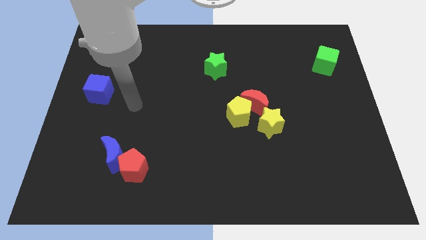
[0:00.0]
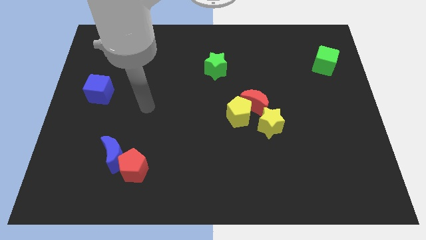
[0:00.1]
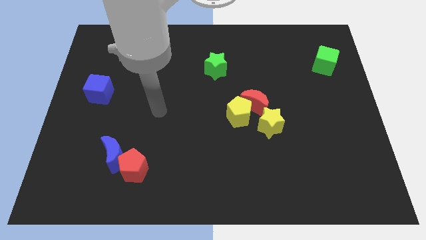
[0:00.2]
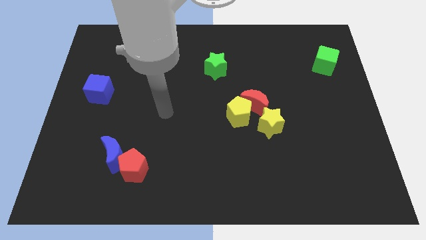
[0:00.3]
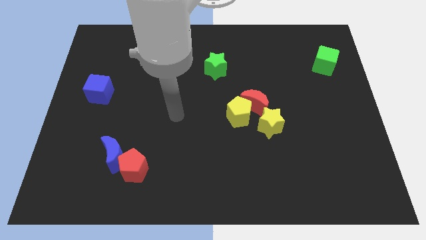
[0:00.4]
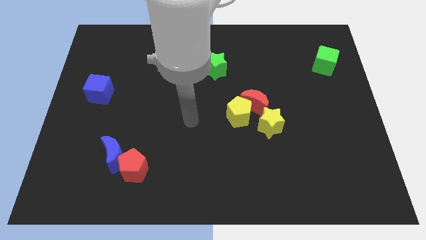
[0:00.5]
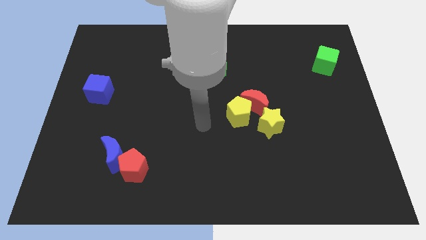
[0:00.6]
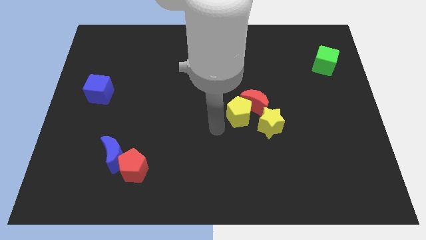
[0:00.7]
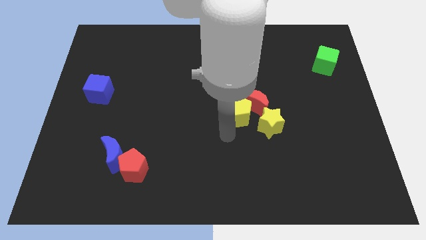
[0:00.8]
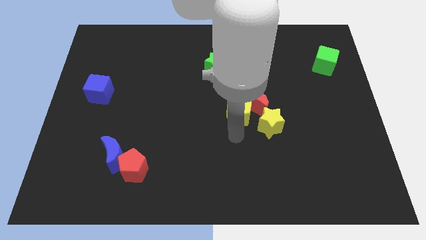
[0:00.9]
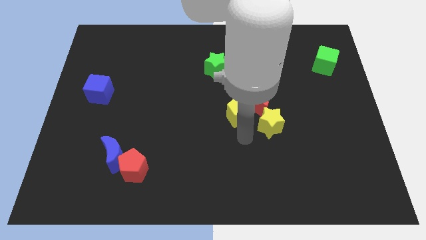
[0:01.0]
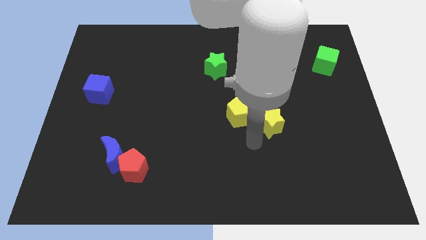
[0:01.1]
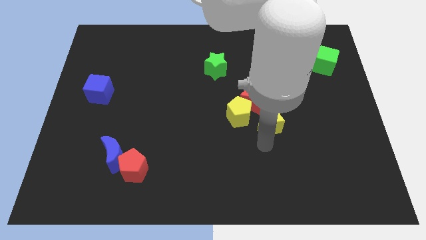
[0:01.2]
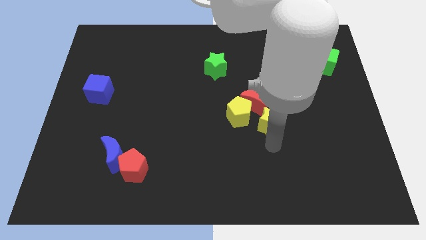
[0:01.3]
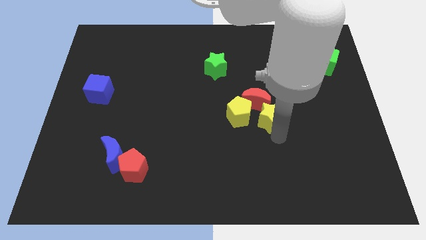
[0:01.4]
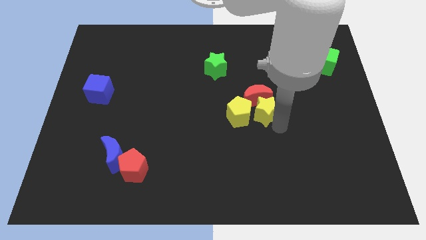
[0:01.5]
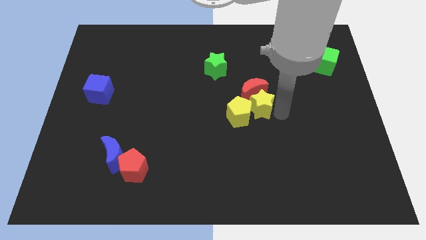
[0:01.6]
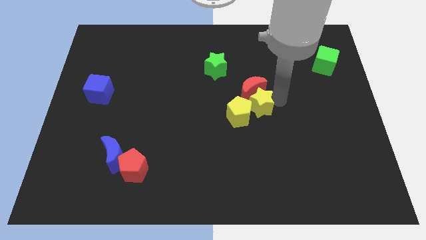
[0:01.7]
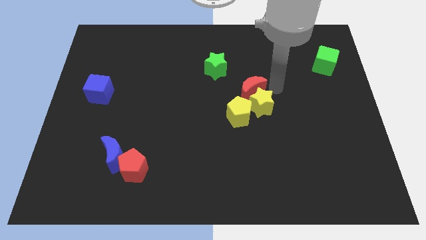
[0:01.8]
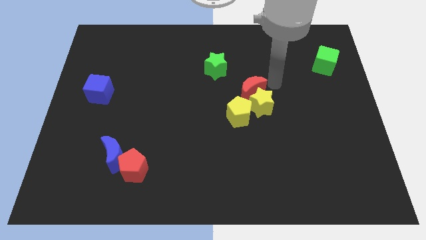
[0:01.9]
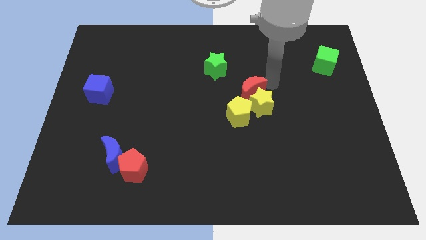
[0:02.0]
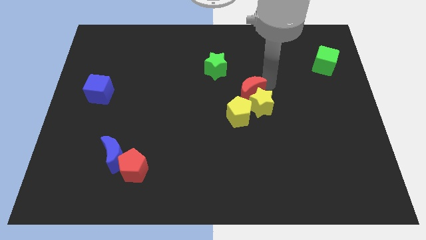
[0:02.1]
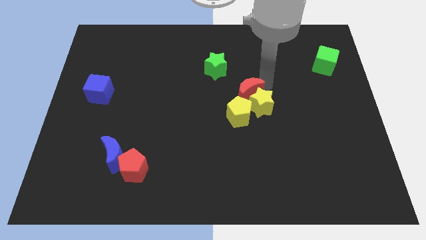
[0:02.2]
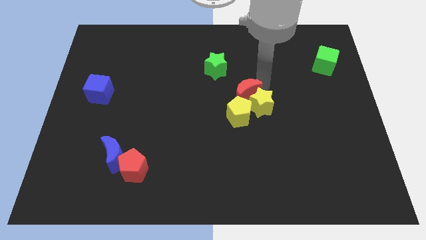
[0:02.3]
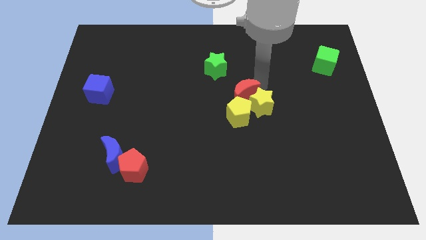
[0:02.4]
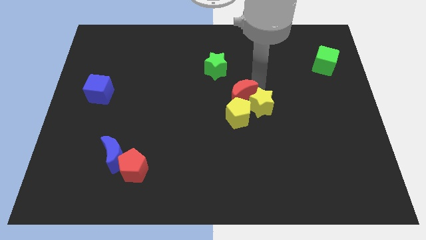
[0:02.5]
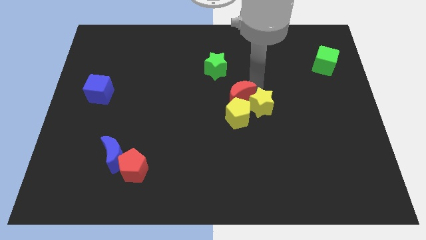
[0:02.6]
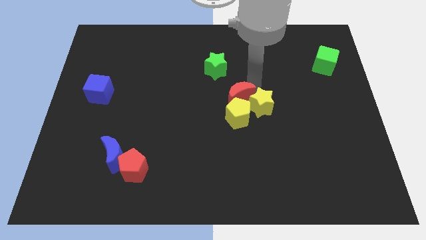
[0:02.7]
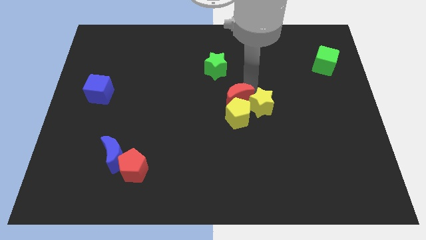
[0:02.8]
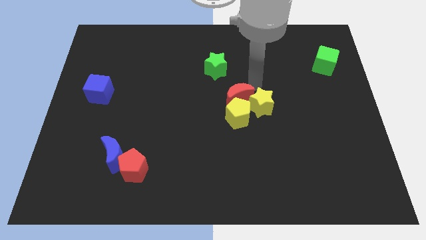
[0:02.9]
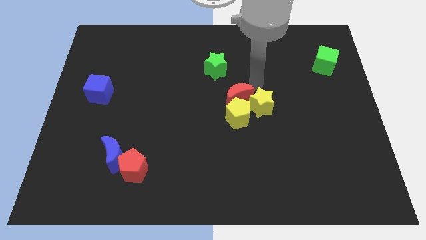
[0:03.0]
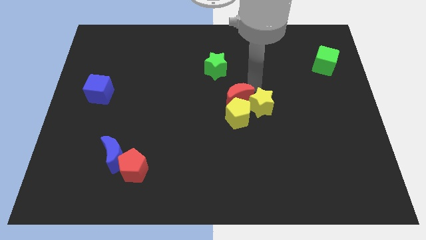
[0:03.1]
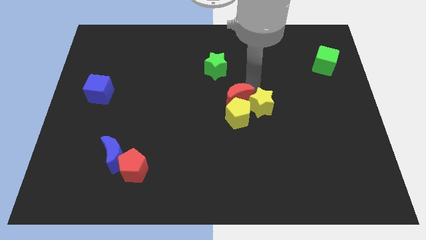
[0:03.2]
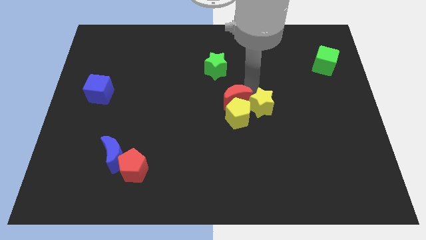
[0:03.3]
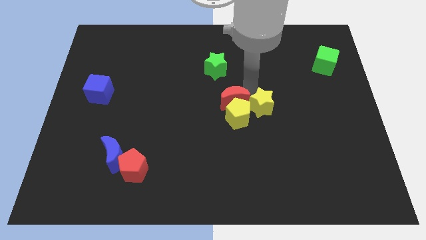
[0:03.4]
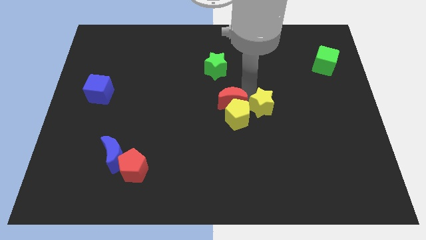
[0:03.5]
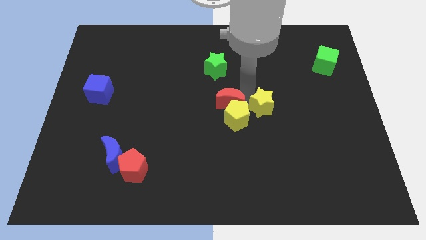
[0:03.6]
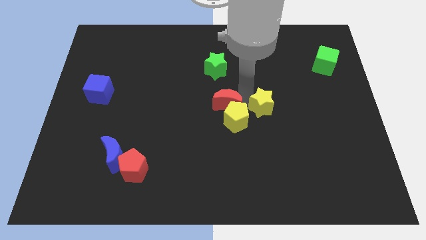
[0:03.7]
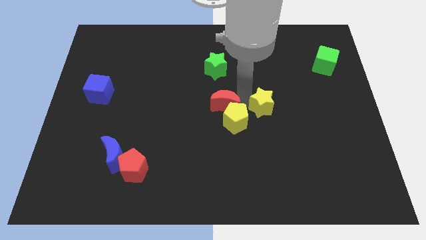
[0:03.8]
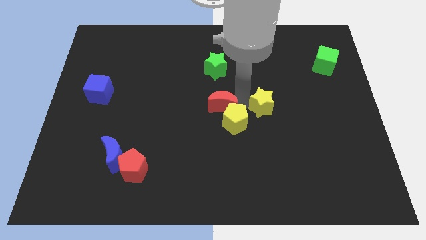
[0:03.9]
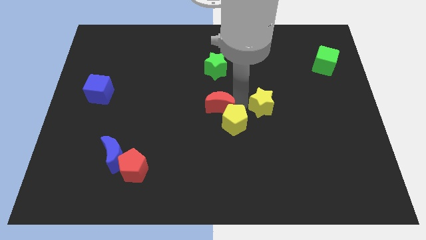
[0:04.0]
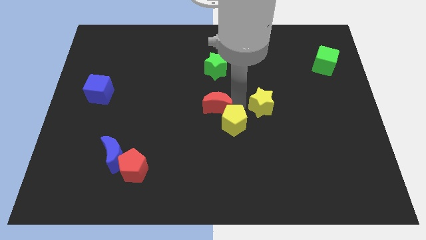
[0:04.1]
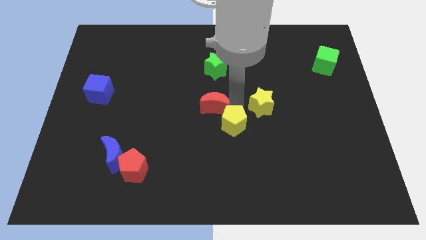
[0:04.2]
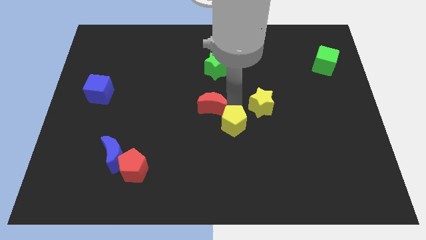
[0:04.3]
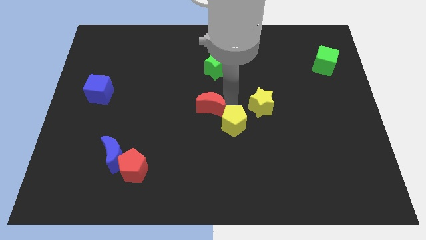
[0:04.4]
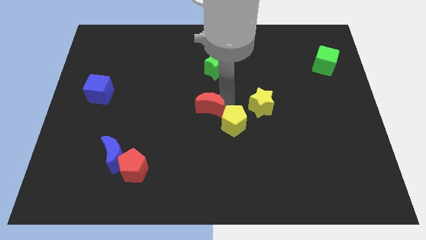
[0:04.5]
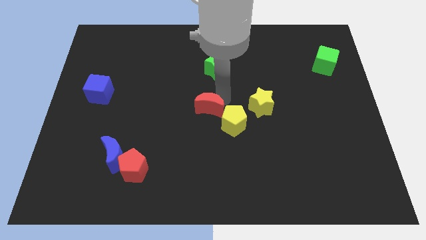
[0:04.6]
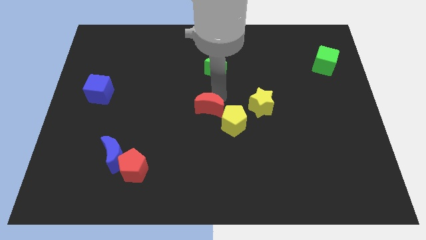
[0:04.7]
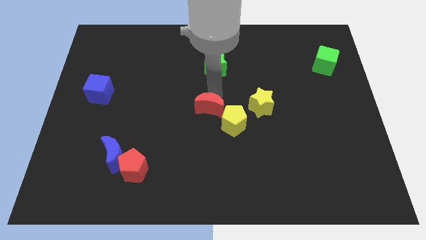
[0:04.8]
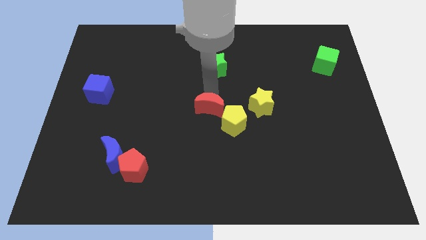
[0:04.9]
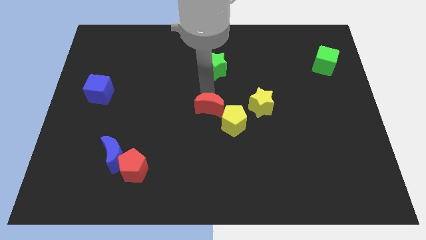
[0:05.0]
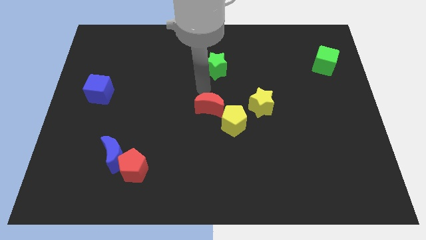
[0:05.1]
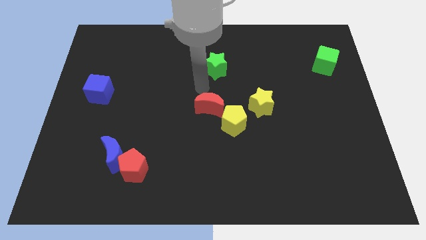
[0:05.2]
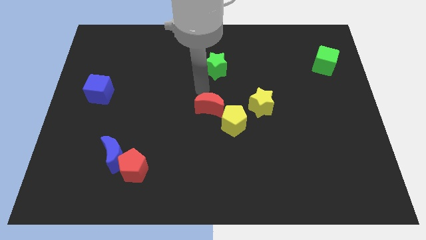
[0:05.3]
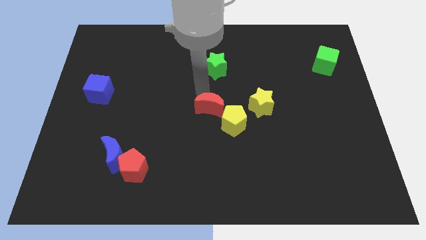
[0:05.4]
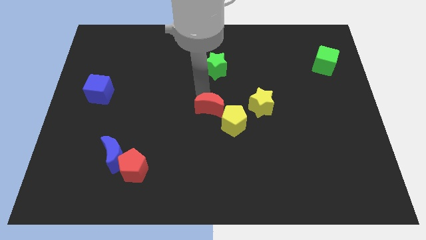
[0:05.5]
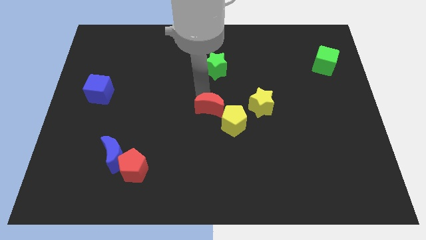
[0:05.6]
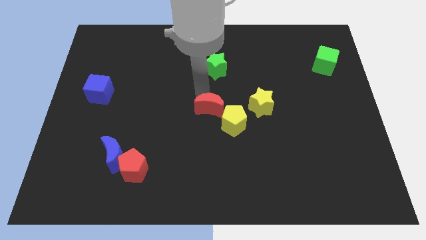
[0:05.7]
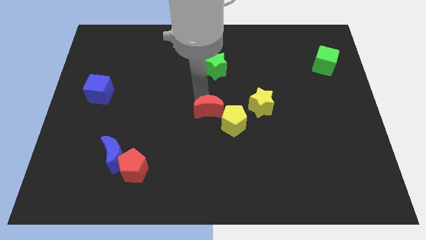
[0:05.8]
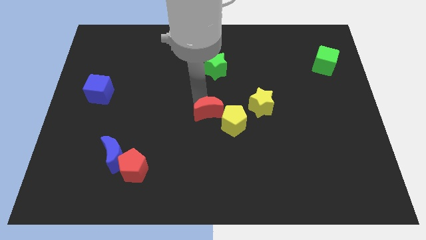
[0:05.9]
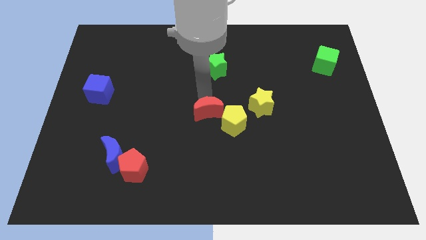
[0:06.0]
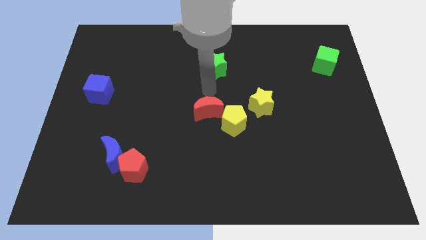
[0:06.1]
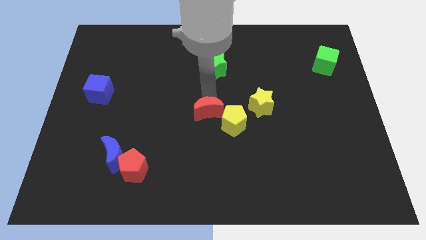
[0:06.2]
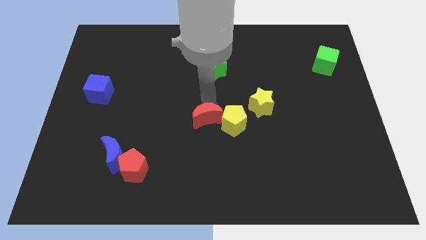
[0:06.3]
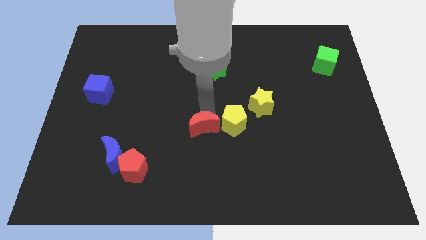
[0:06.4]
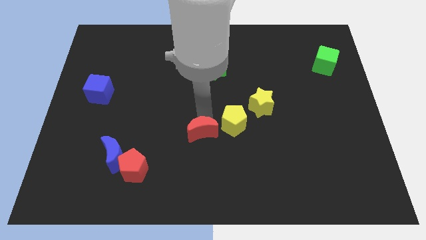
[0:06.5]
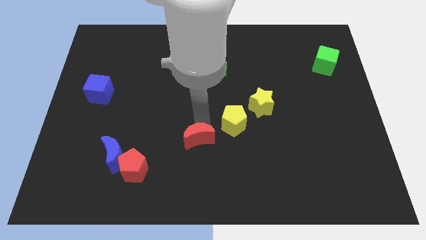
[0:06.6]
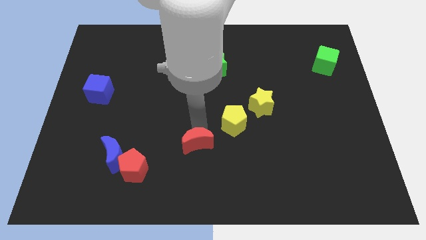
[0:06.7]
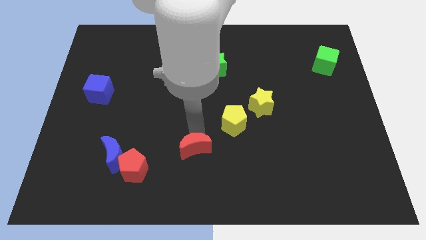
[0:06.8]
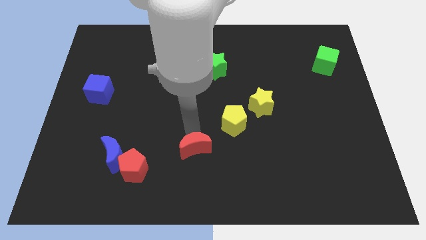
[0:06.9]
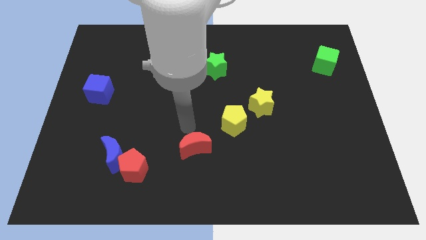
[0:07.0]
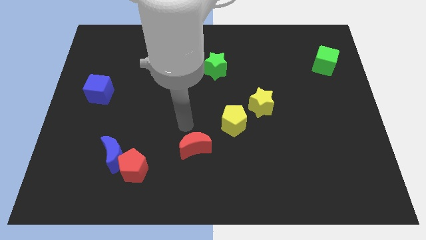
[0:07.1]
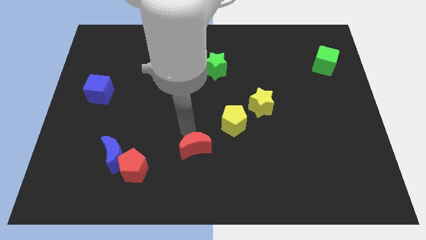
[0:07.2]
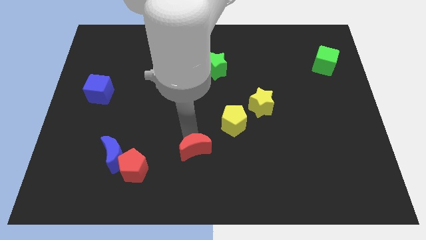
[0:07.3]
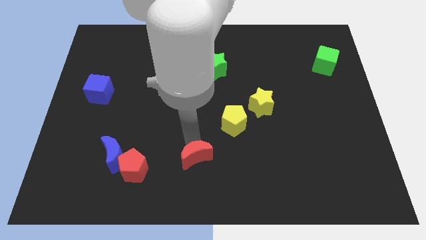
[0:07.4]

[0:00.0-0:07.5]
slide the red moon to the bottom side
